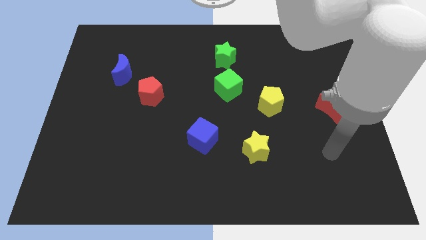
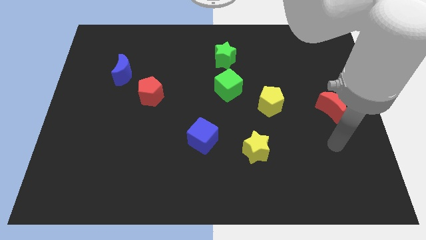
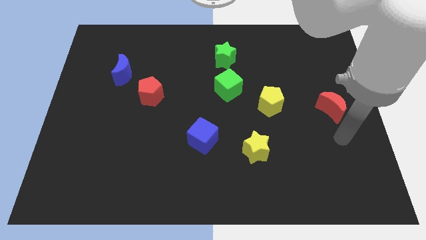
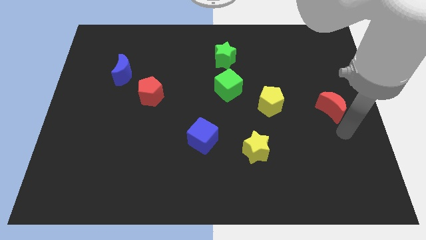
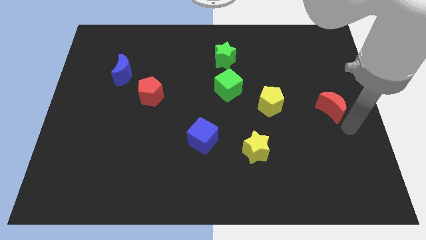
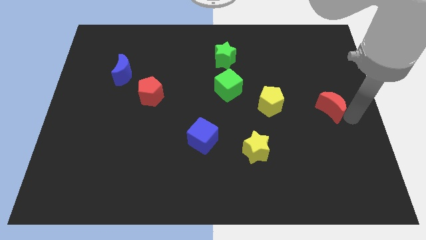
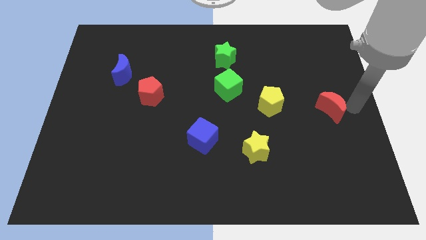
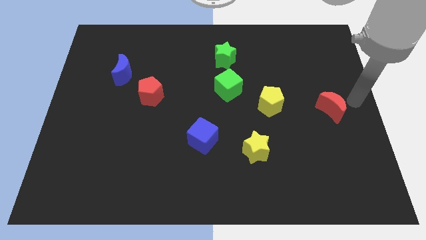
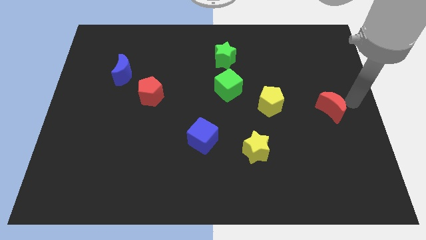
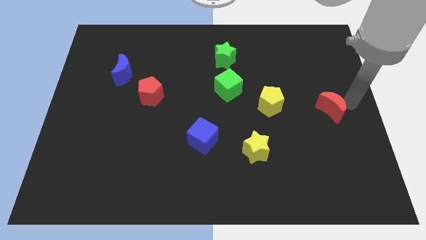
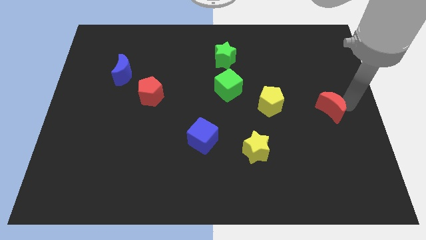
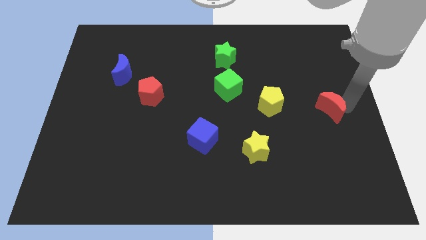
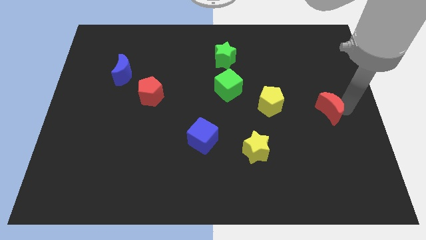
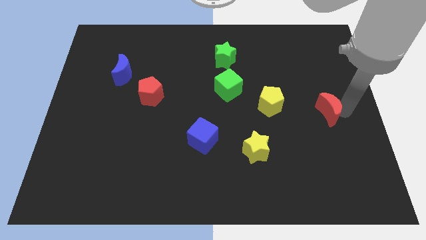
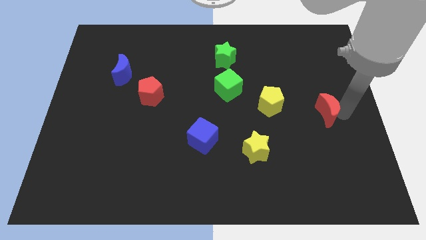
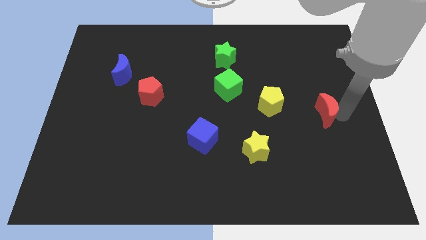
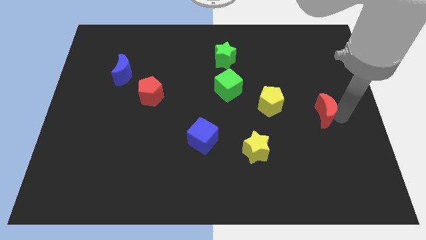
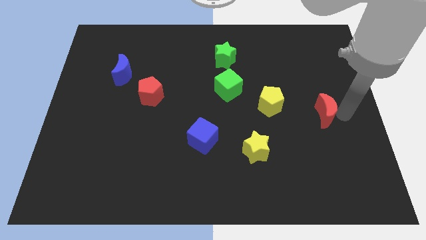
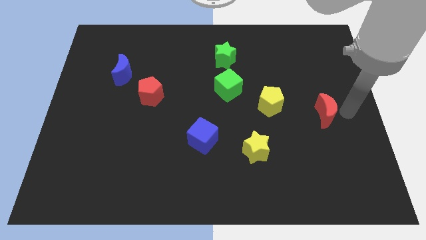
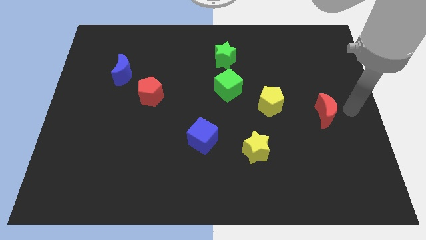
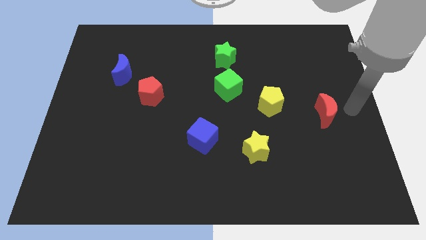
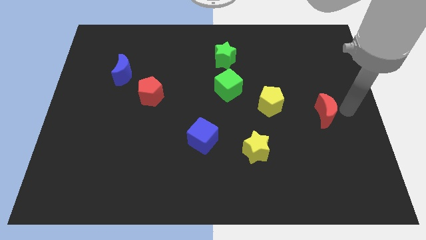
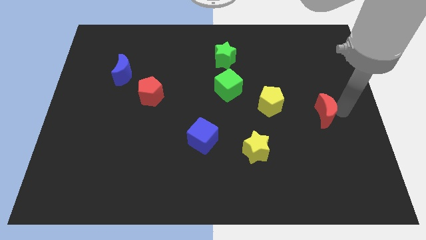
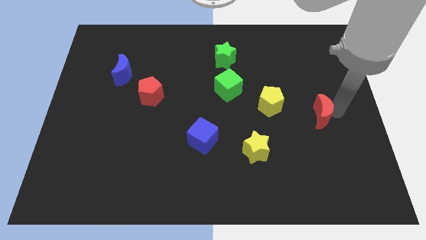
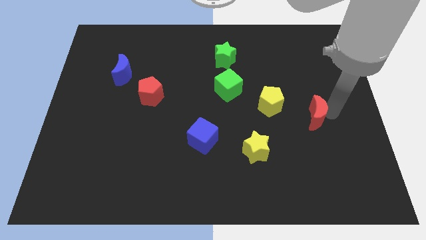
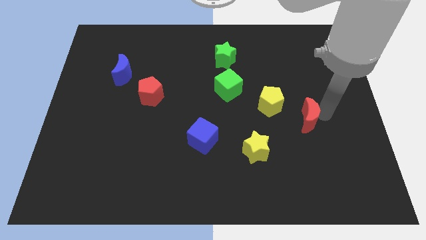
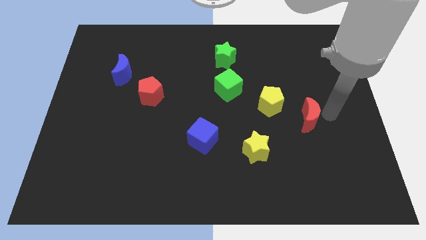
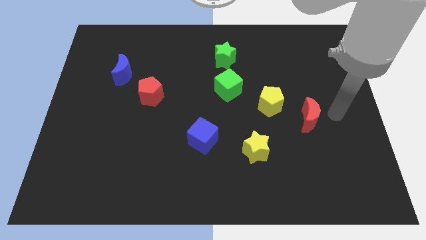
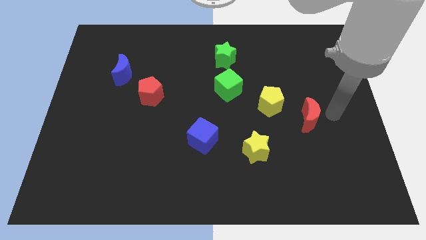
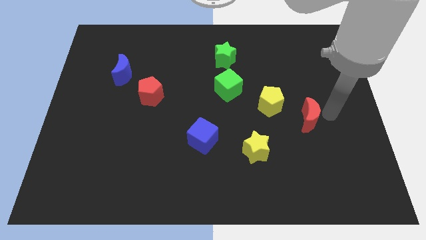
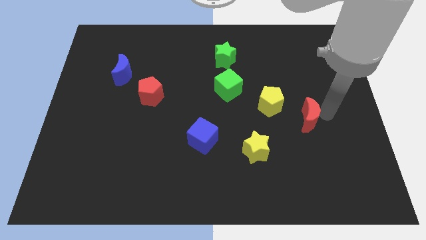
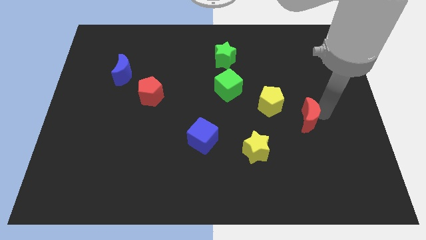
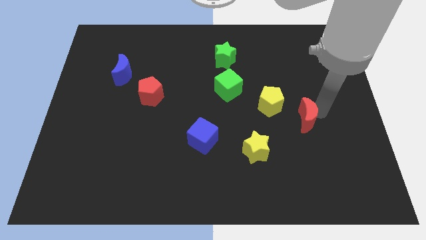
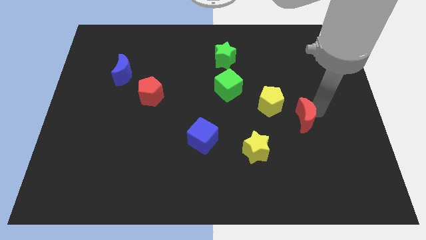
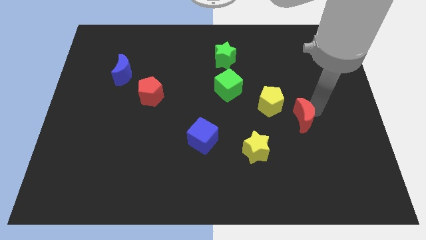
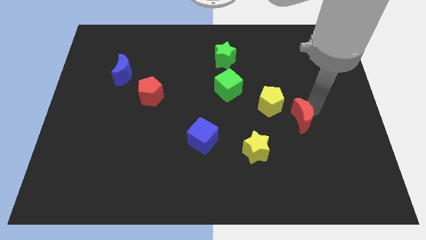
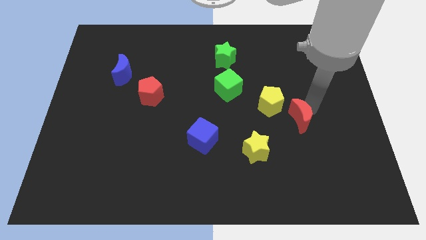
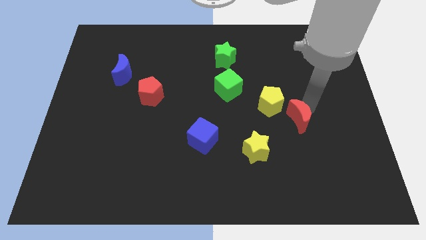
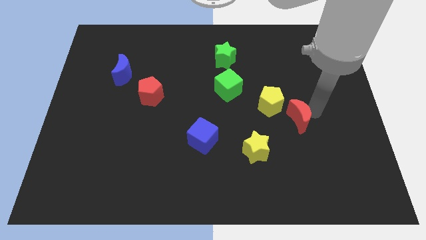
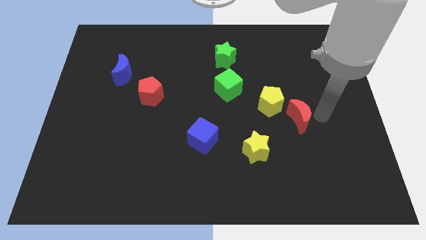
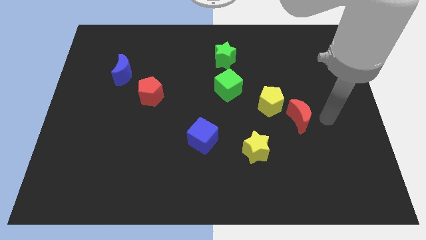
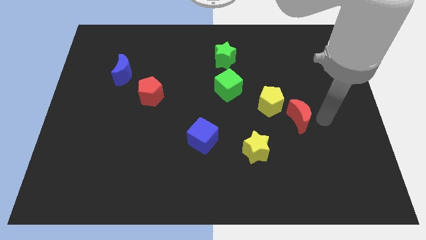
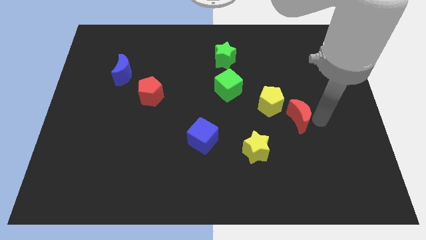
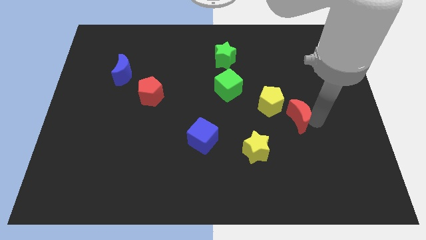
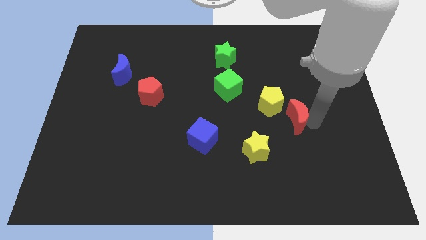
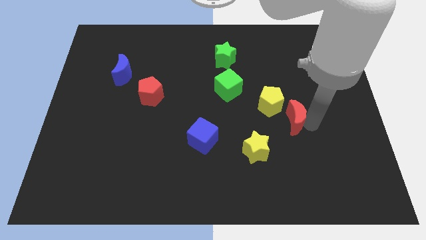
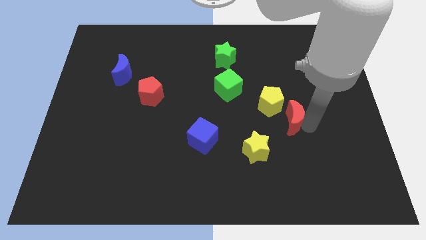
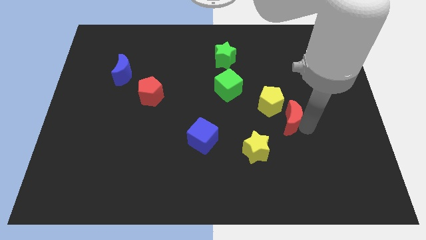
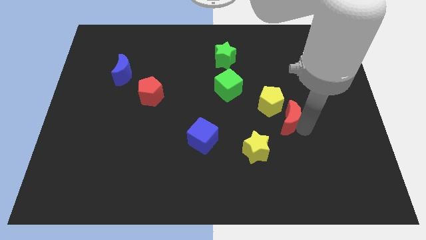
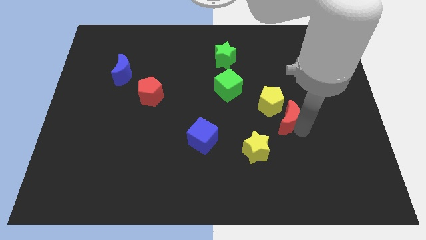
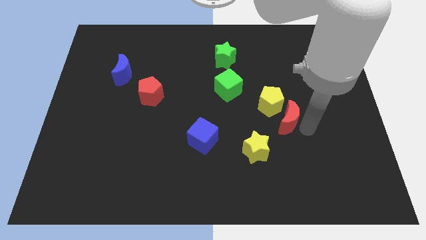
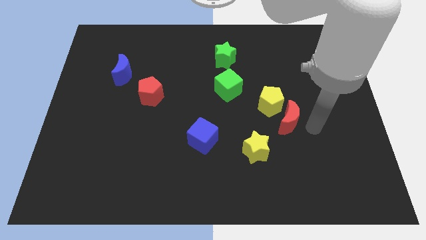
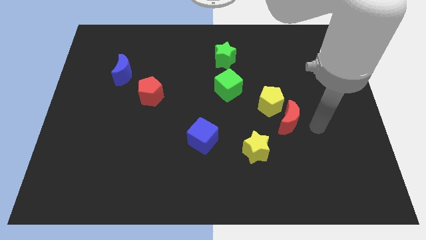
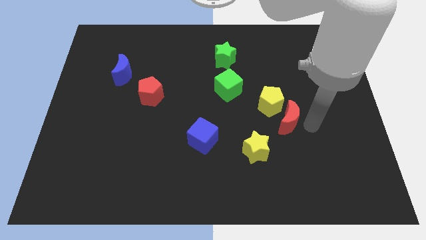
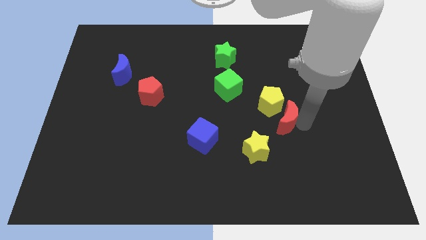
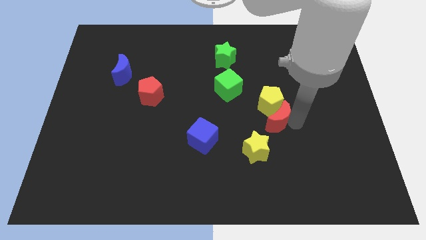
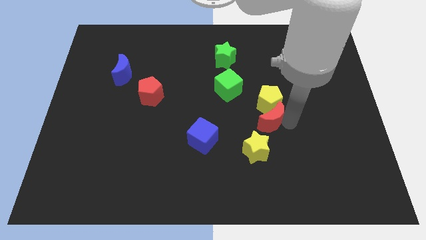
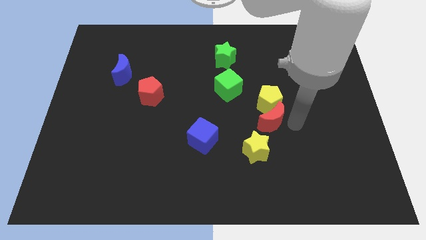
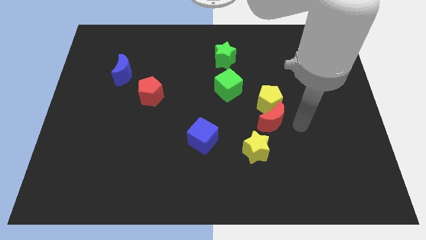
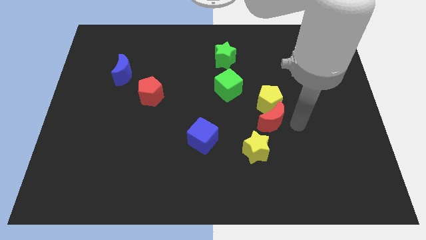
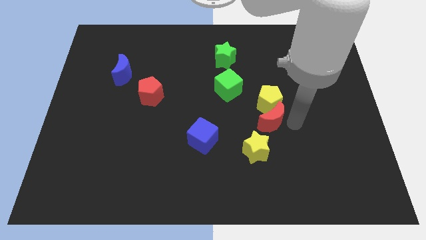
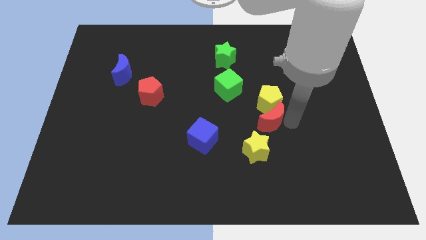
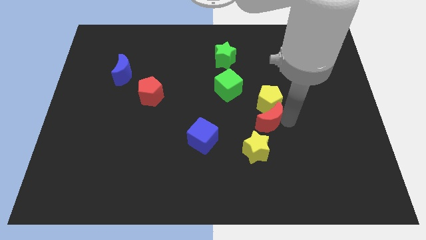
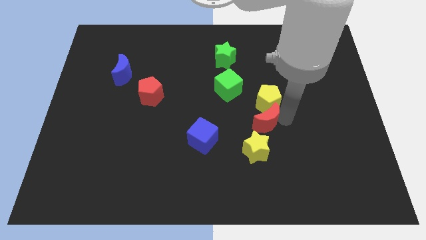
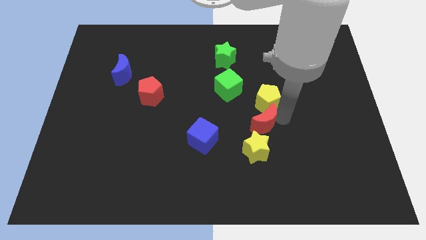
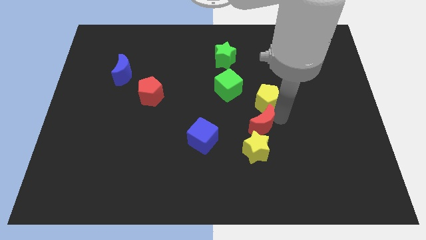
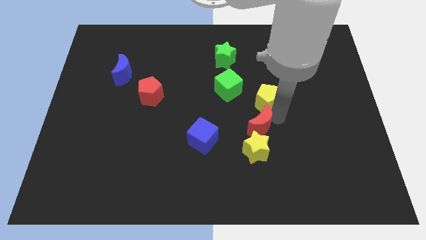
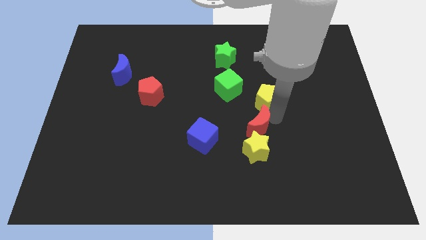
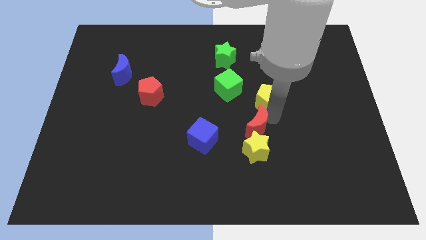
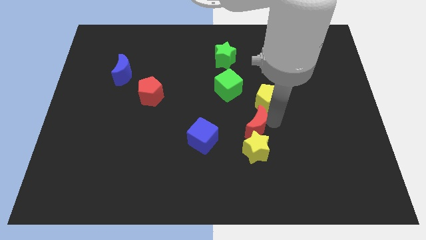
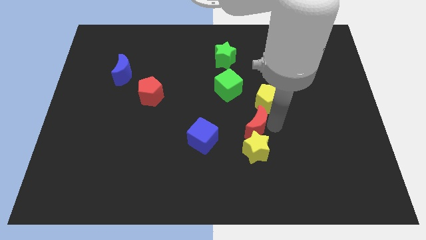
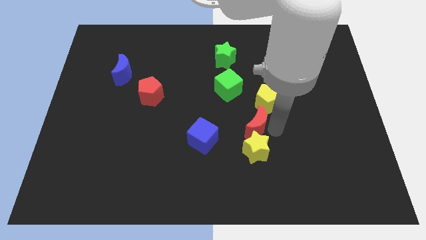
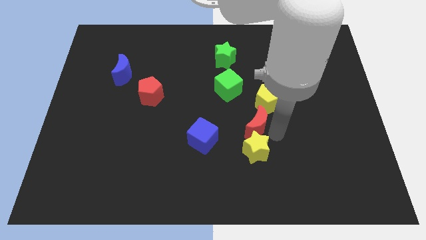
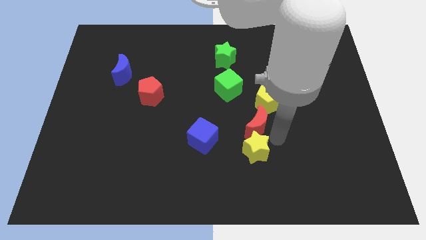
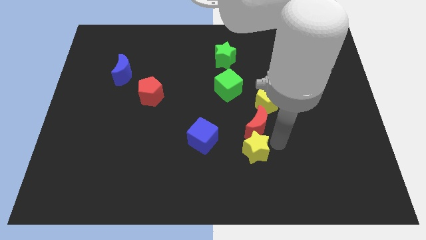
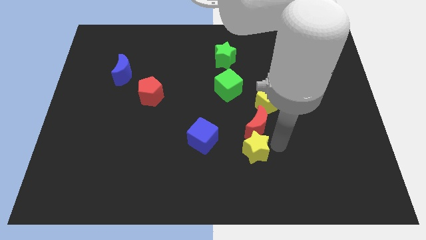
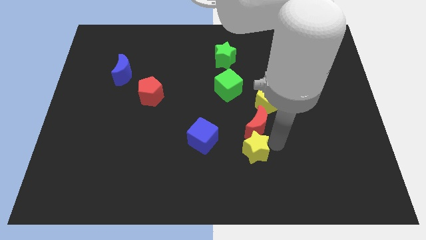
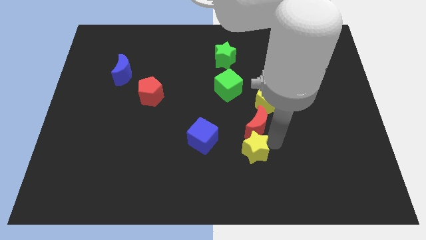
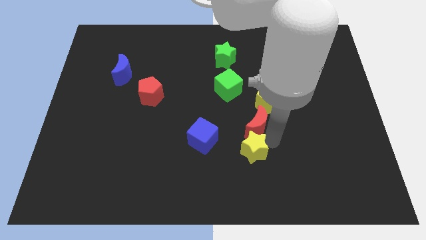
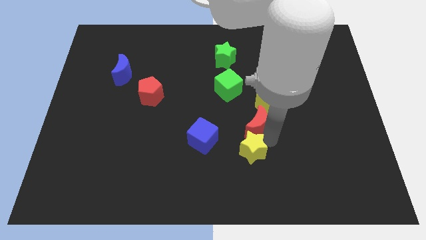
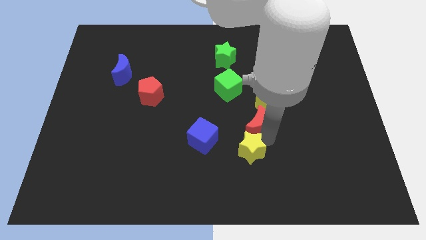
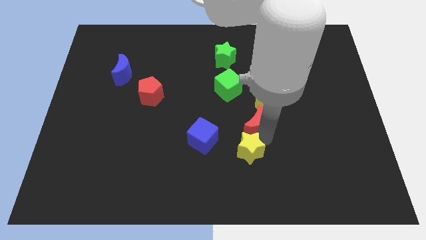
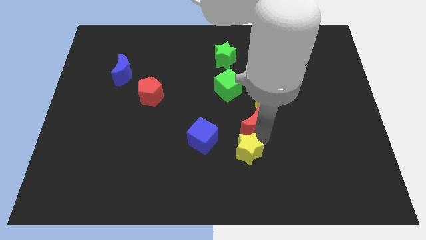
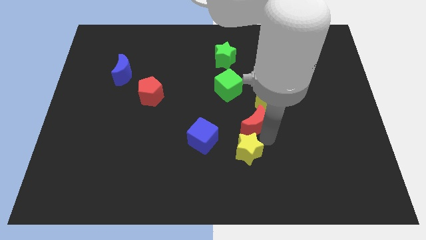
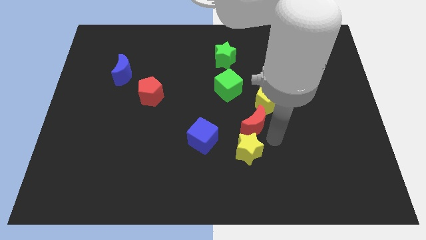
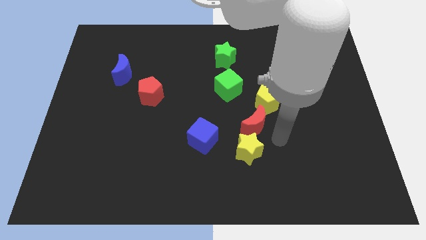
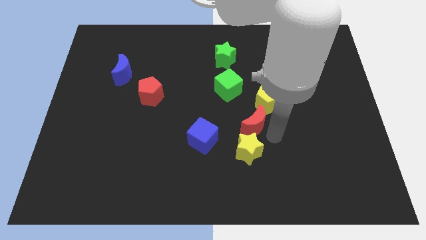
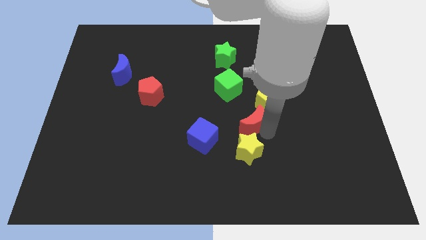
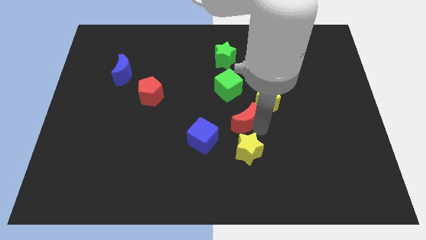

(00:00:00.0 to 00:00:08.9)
move the red moon left
